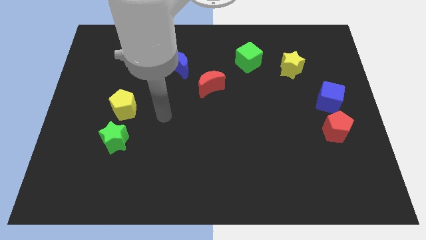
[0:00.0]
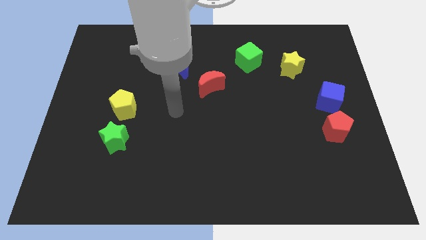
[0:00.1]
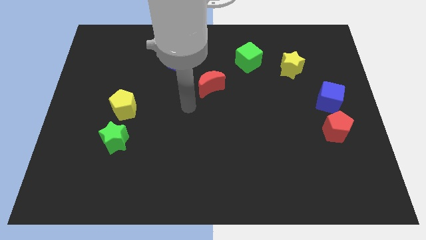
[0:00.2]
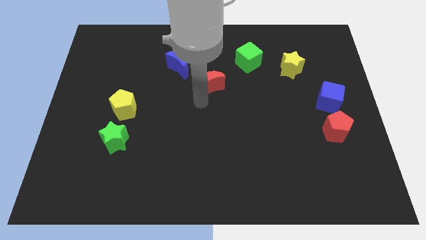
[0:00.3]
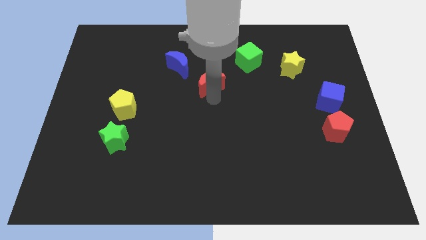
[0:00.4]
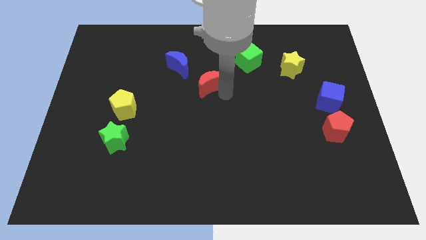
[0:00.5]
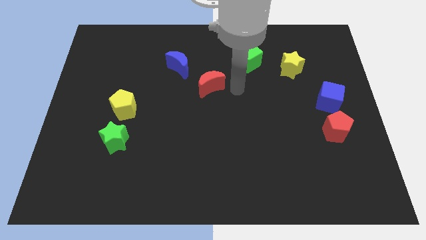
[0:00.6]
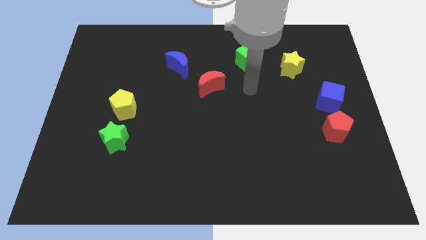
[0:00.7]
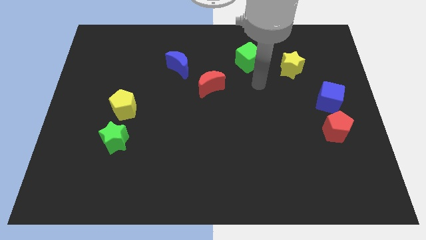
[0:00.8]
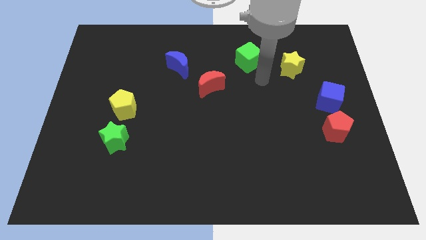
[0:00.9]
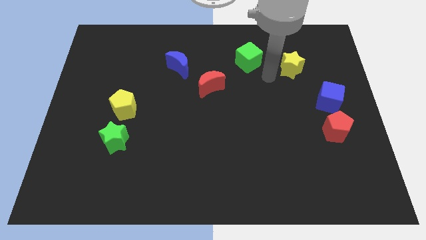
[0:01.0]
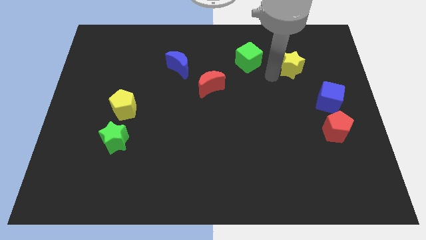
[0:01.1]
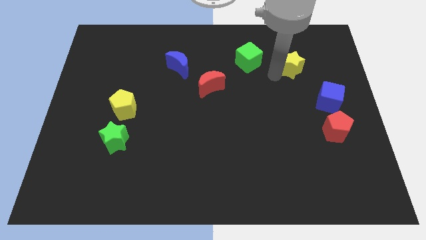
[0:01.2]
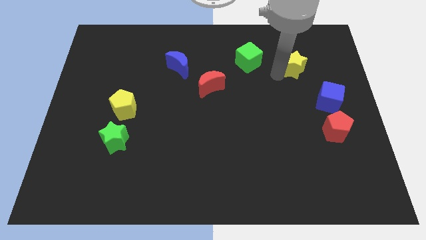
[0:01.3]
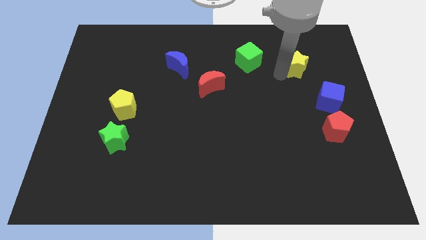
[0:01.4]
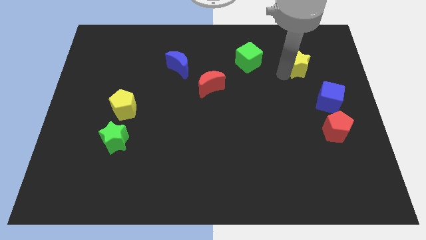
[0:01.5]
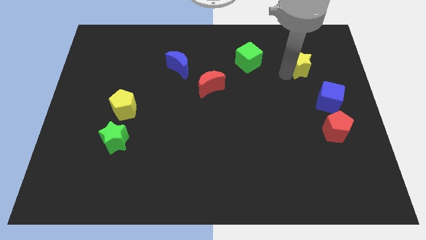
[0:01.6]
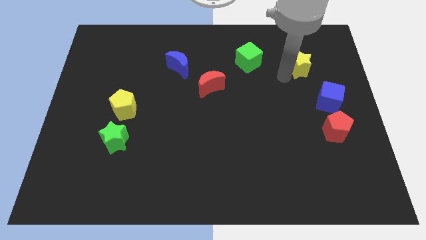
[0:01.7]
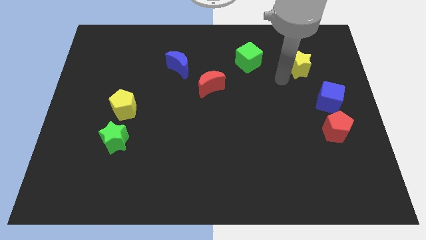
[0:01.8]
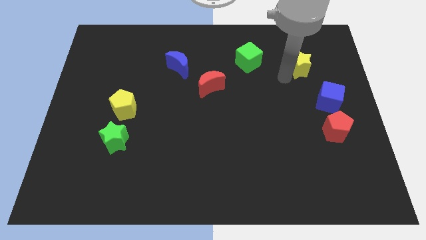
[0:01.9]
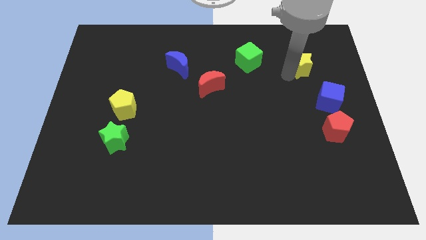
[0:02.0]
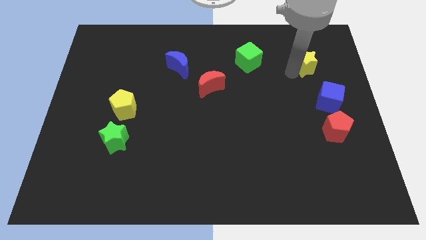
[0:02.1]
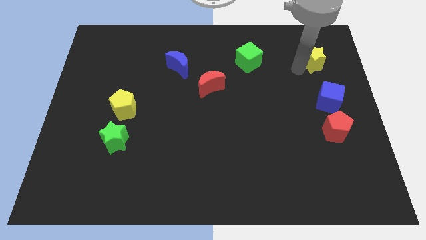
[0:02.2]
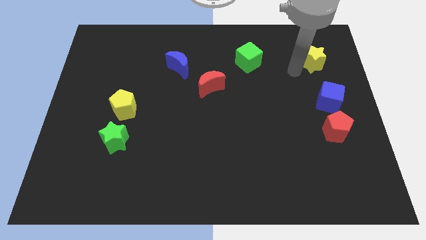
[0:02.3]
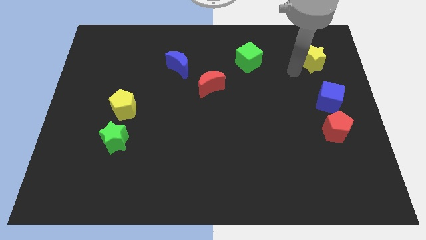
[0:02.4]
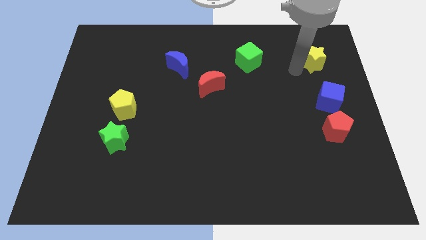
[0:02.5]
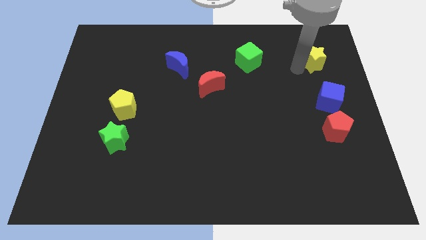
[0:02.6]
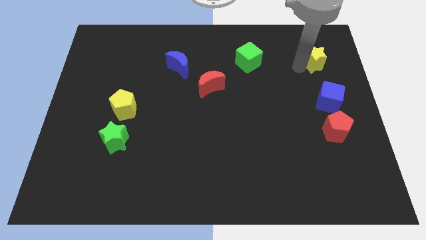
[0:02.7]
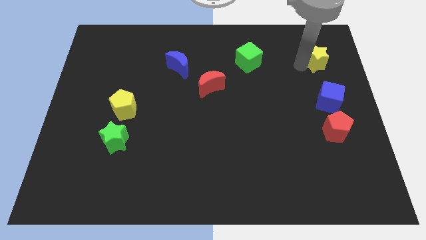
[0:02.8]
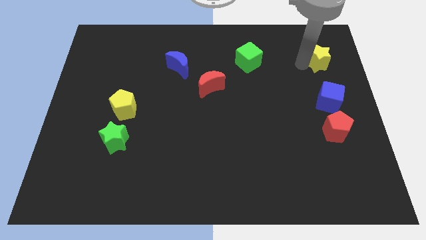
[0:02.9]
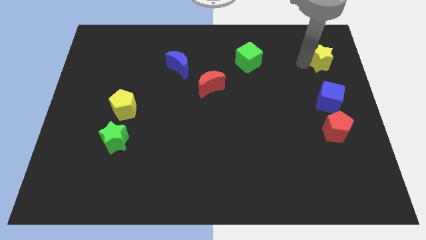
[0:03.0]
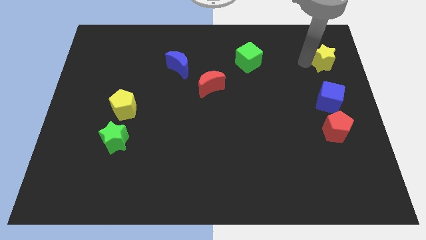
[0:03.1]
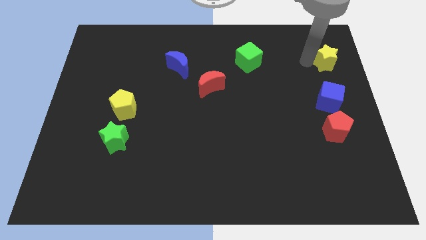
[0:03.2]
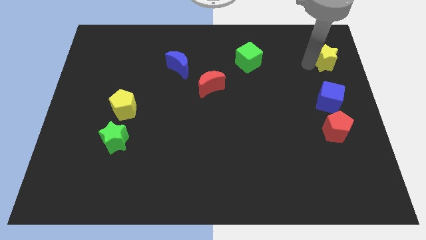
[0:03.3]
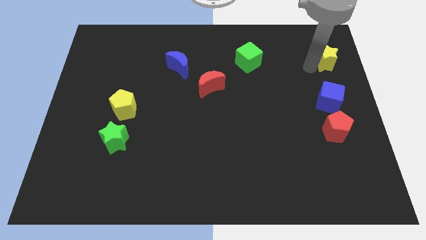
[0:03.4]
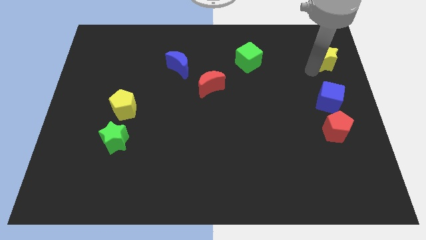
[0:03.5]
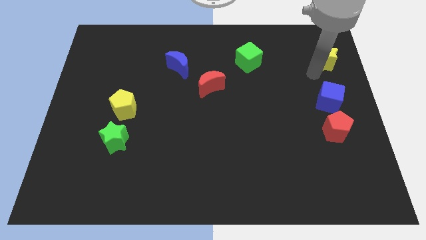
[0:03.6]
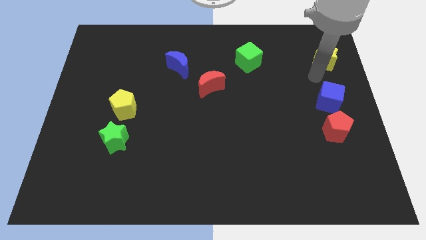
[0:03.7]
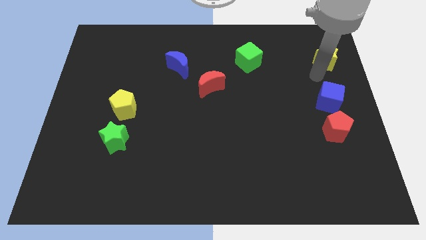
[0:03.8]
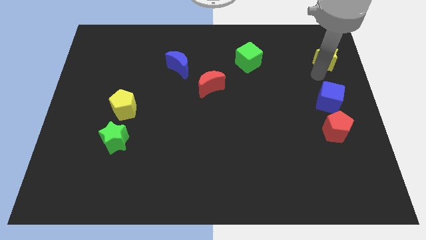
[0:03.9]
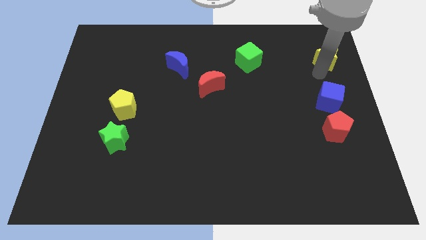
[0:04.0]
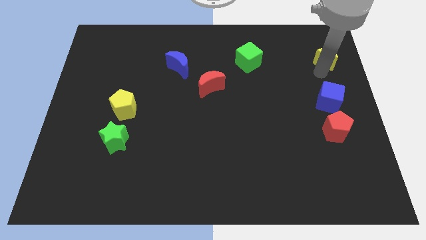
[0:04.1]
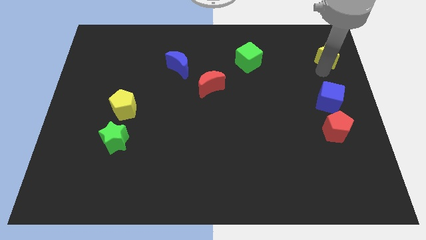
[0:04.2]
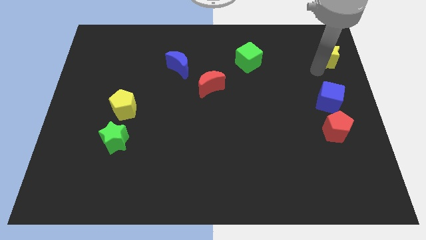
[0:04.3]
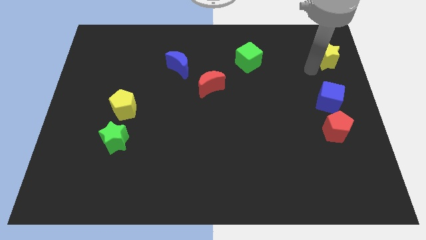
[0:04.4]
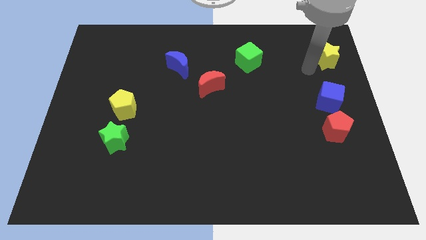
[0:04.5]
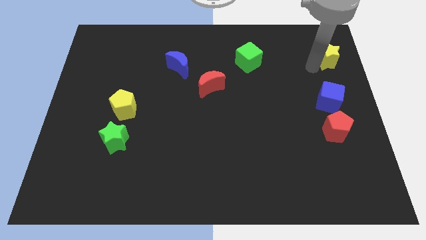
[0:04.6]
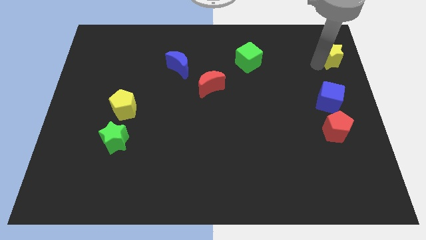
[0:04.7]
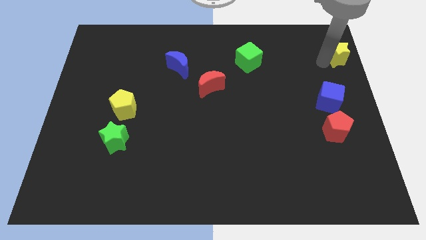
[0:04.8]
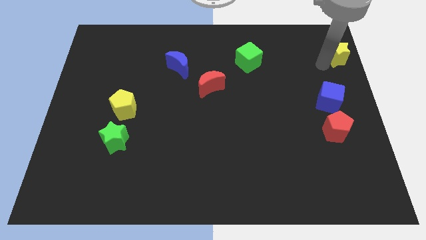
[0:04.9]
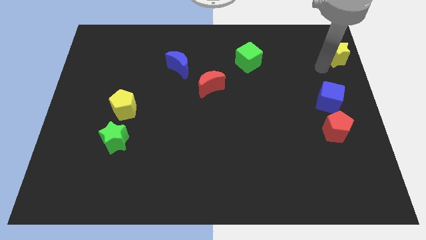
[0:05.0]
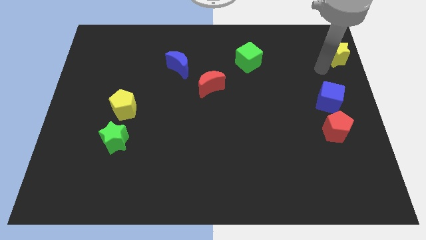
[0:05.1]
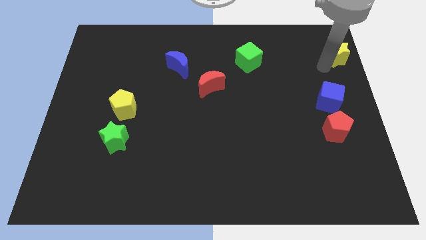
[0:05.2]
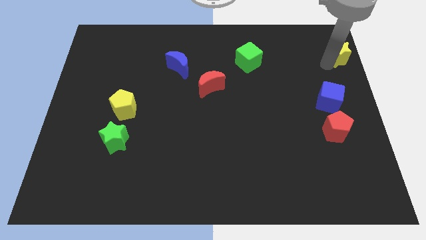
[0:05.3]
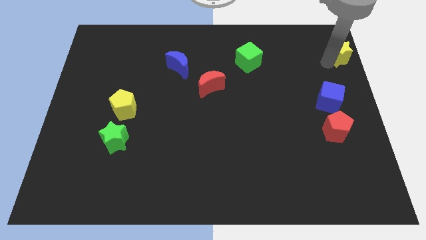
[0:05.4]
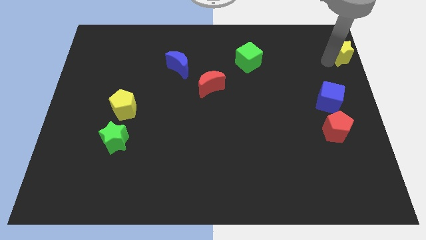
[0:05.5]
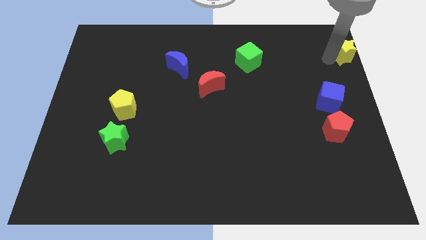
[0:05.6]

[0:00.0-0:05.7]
move the yellow star to the top right corner

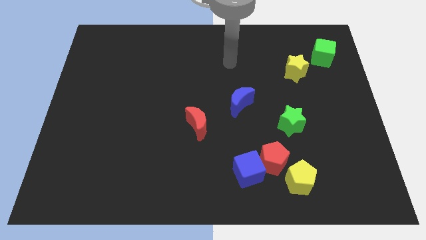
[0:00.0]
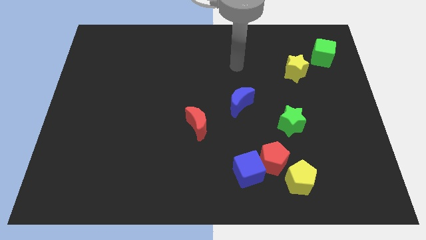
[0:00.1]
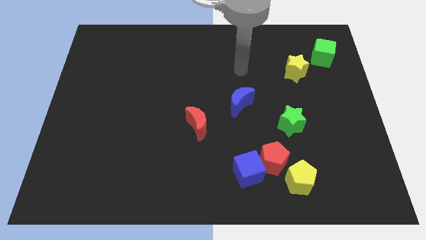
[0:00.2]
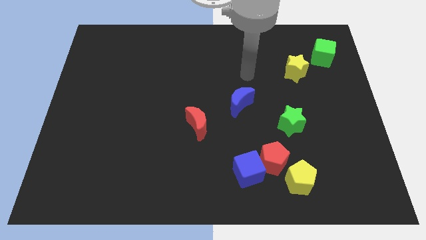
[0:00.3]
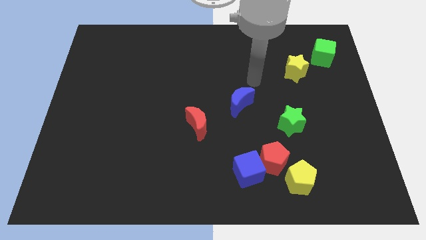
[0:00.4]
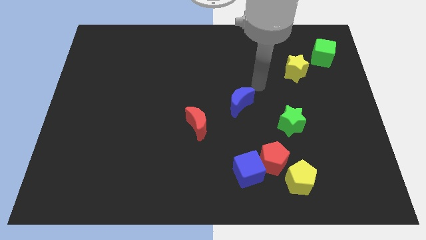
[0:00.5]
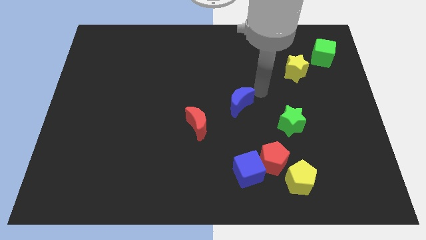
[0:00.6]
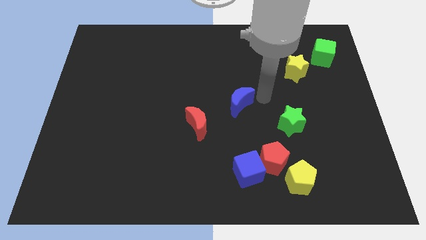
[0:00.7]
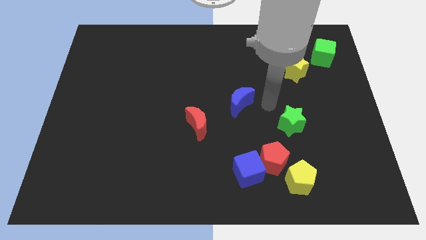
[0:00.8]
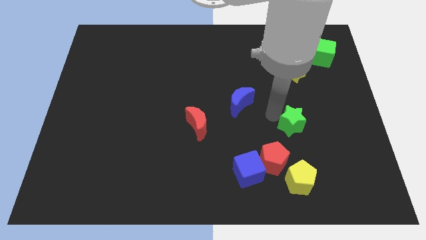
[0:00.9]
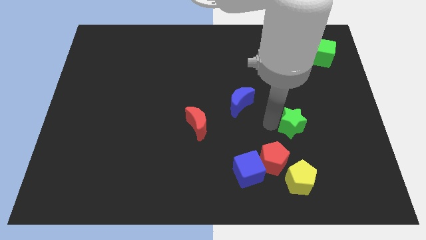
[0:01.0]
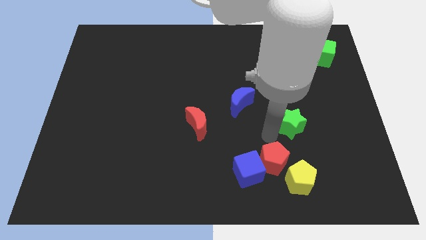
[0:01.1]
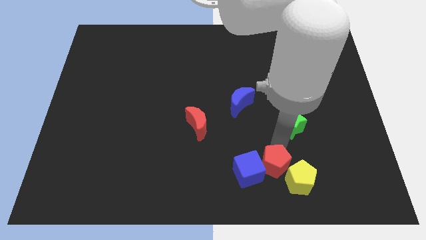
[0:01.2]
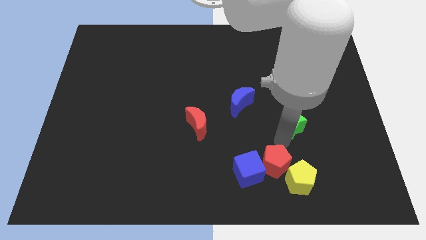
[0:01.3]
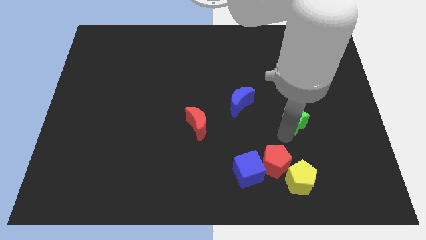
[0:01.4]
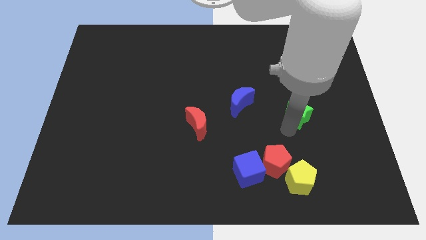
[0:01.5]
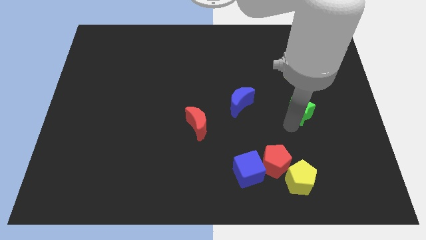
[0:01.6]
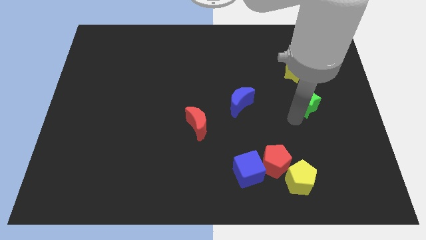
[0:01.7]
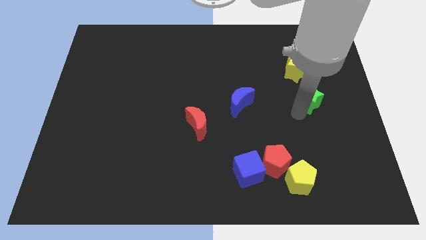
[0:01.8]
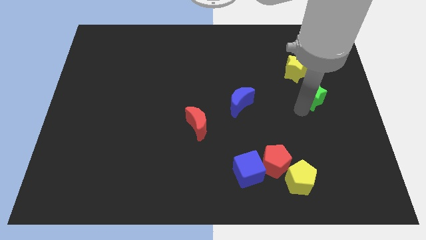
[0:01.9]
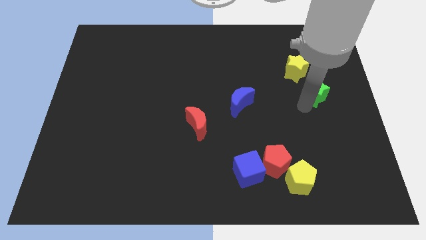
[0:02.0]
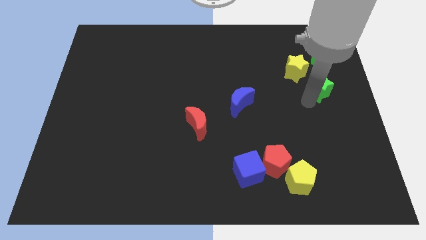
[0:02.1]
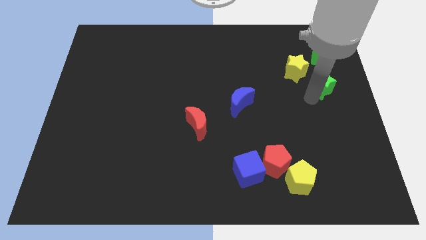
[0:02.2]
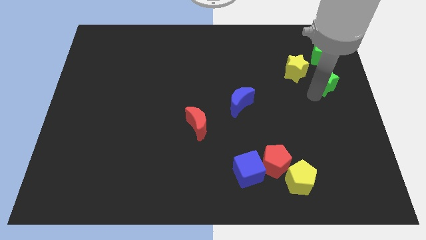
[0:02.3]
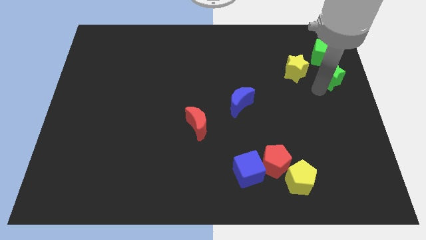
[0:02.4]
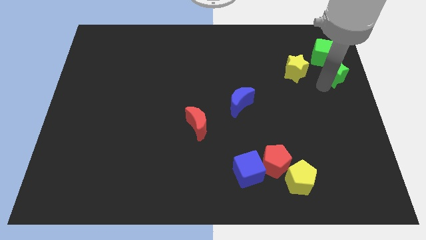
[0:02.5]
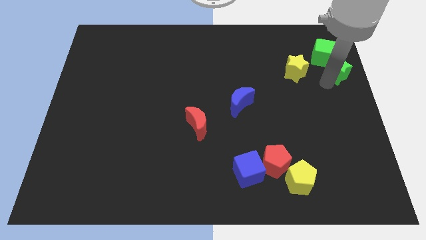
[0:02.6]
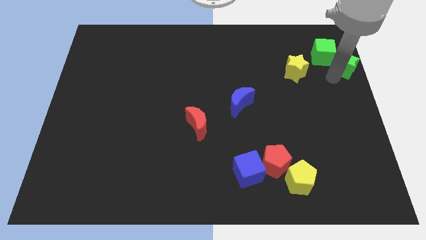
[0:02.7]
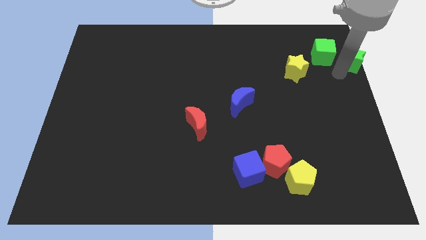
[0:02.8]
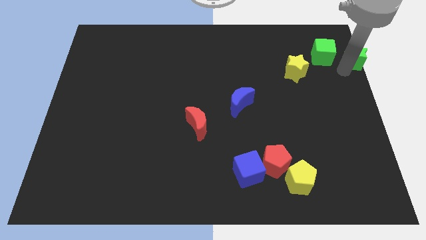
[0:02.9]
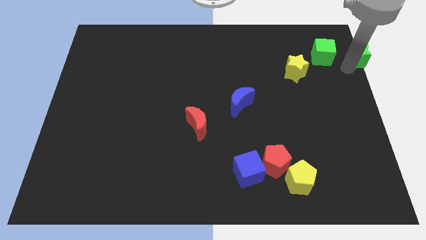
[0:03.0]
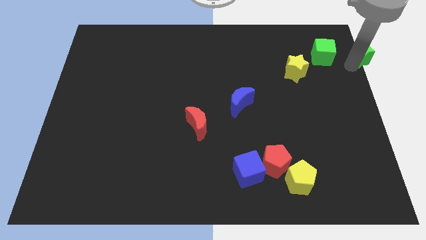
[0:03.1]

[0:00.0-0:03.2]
put the green star to the upper right corner
